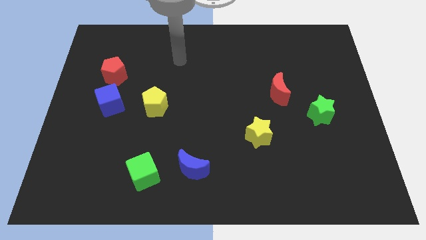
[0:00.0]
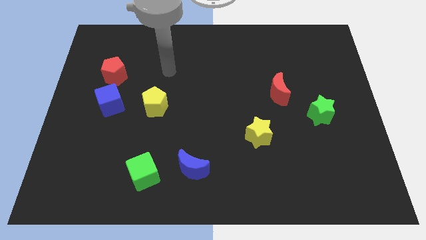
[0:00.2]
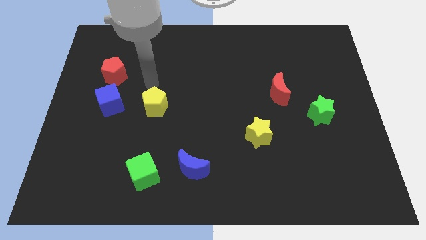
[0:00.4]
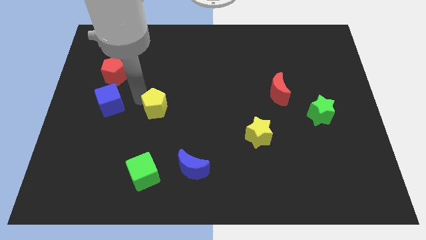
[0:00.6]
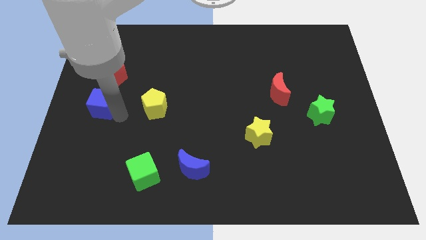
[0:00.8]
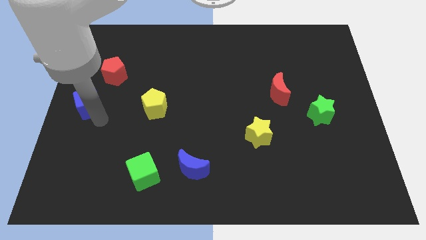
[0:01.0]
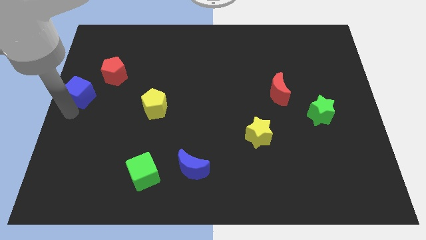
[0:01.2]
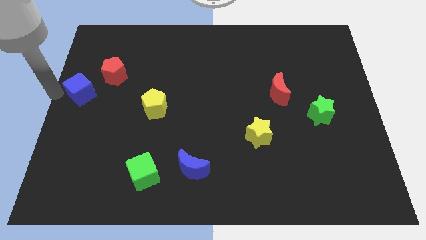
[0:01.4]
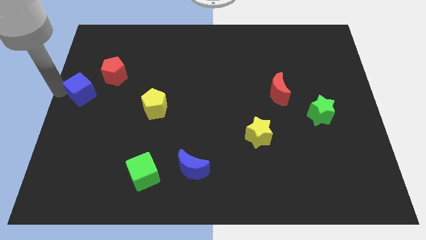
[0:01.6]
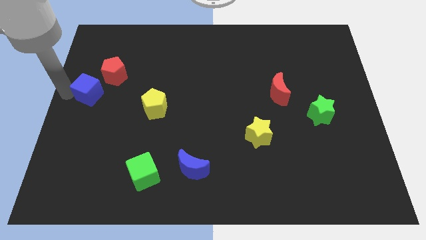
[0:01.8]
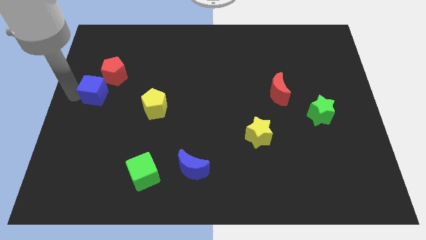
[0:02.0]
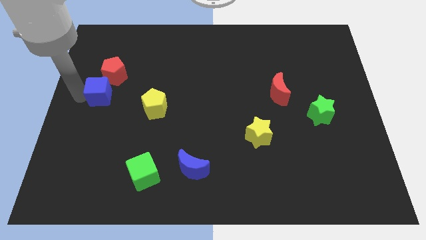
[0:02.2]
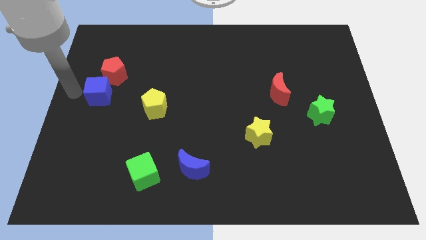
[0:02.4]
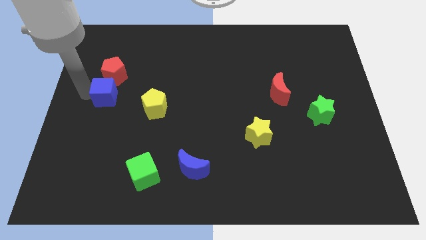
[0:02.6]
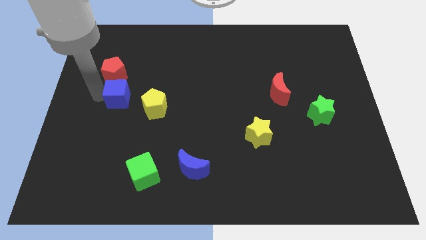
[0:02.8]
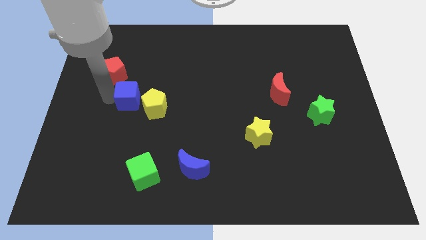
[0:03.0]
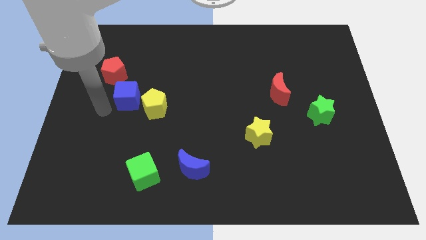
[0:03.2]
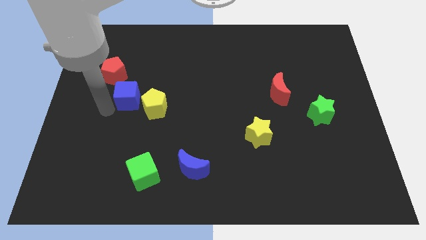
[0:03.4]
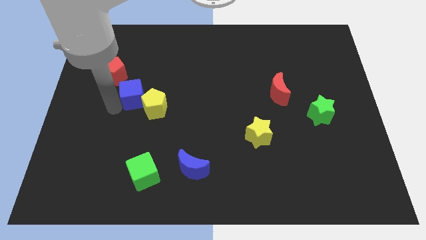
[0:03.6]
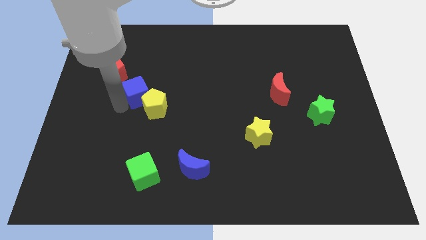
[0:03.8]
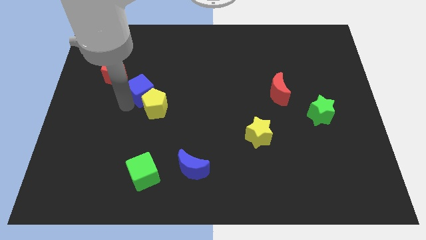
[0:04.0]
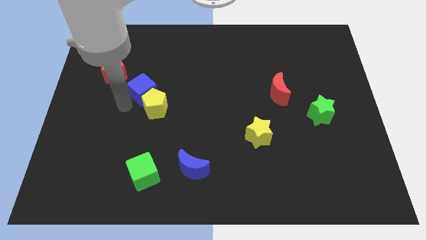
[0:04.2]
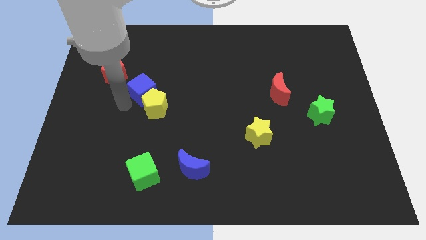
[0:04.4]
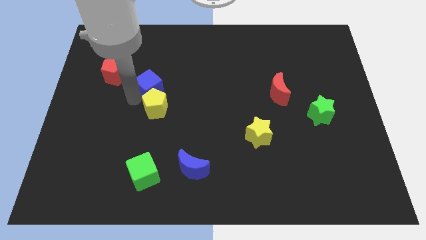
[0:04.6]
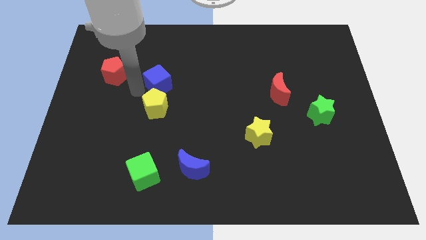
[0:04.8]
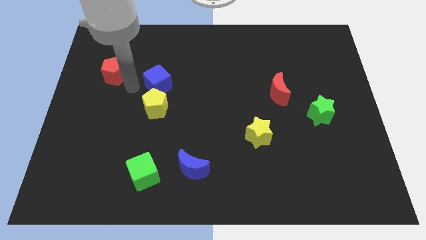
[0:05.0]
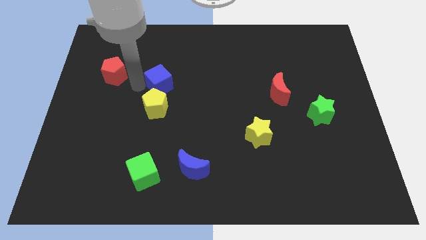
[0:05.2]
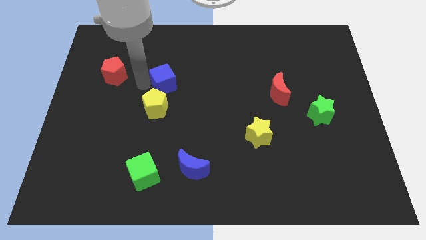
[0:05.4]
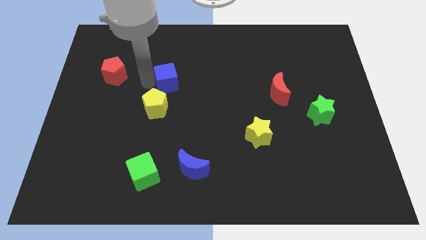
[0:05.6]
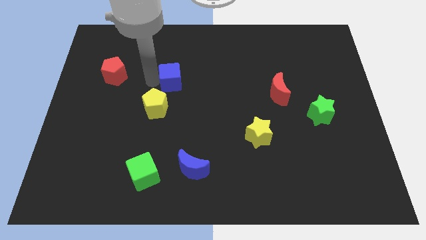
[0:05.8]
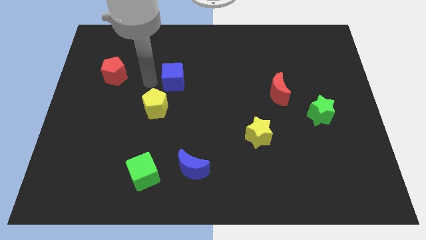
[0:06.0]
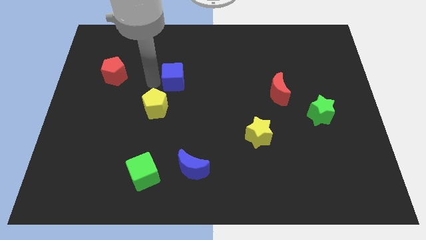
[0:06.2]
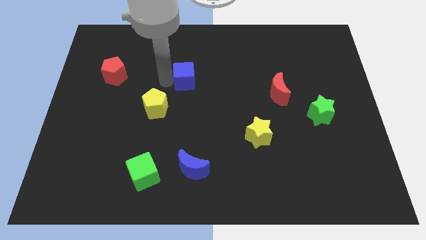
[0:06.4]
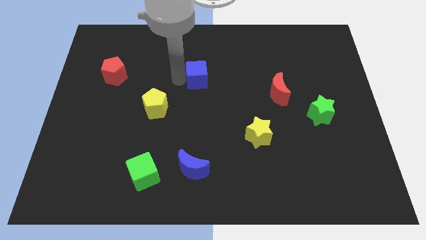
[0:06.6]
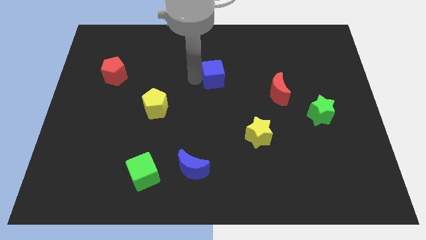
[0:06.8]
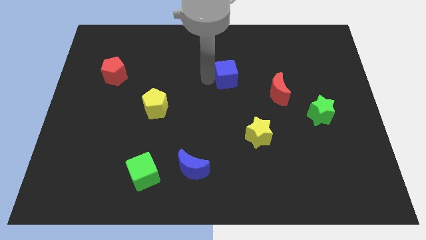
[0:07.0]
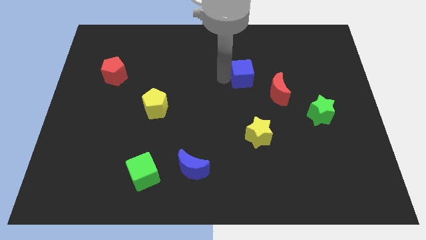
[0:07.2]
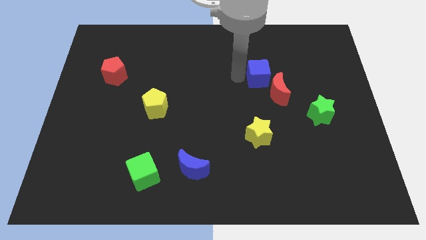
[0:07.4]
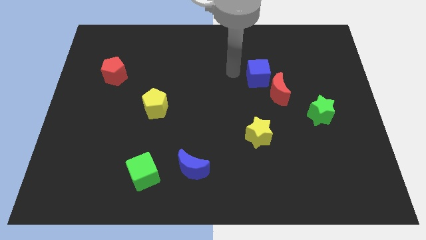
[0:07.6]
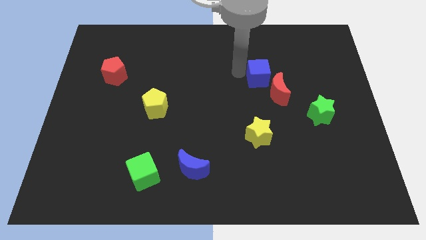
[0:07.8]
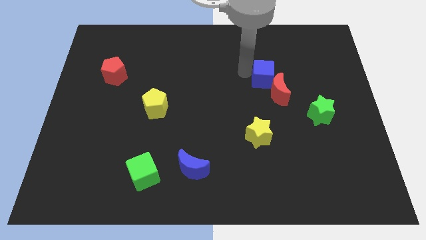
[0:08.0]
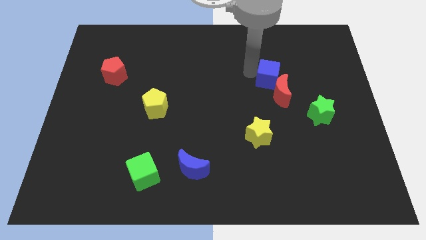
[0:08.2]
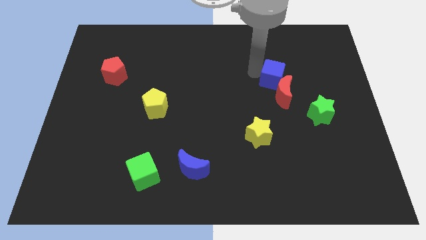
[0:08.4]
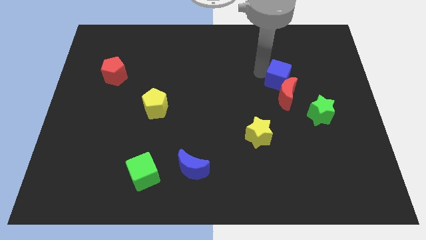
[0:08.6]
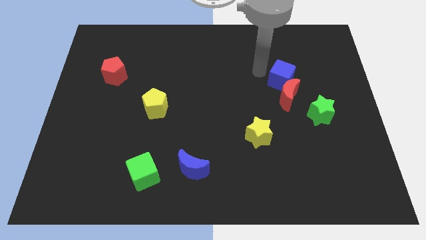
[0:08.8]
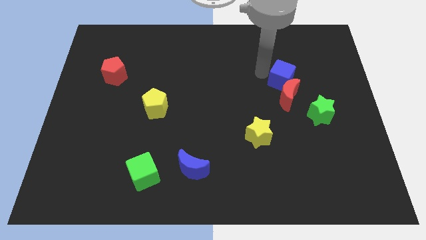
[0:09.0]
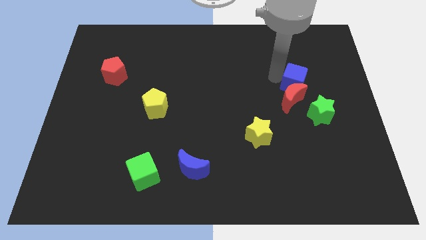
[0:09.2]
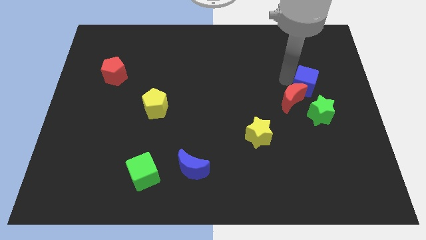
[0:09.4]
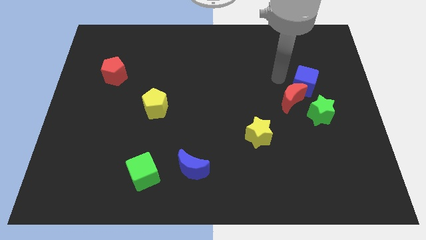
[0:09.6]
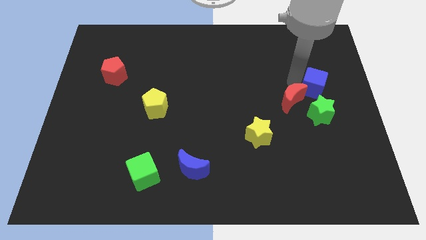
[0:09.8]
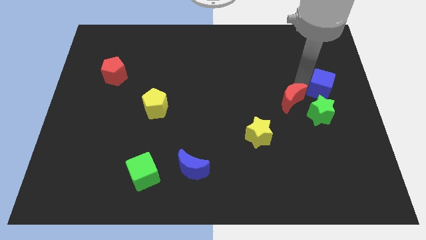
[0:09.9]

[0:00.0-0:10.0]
slide the blue cube to the right side of the board

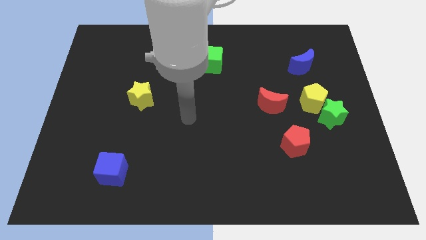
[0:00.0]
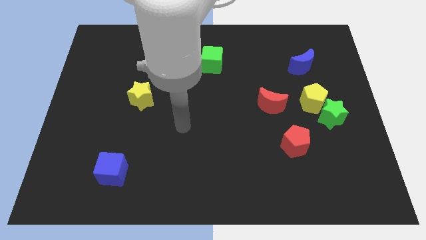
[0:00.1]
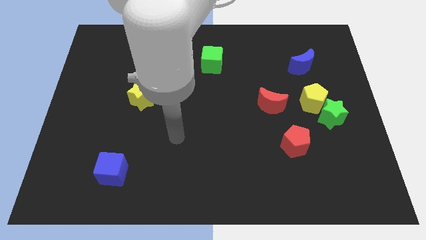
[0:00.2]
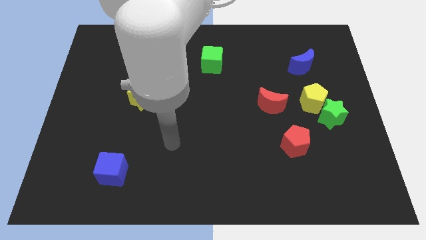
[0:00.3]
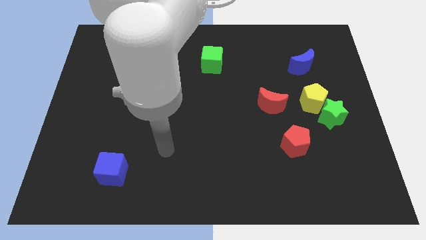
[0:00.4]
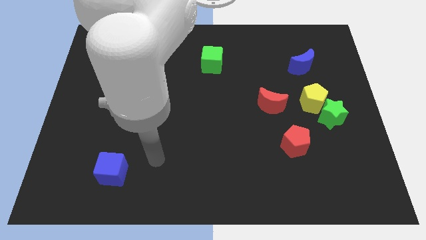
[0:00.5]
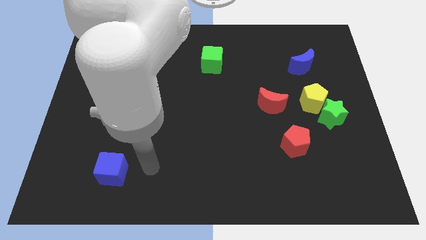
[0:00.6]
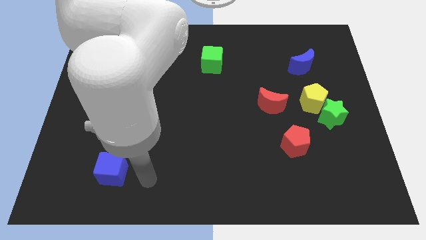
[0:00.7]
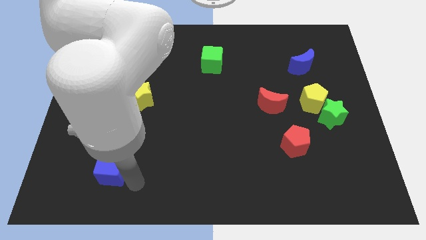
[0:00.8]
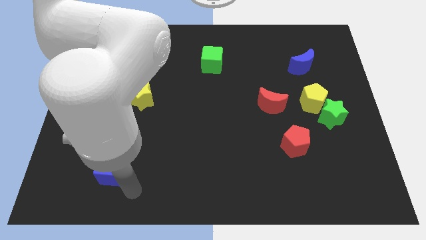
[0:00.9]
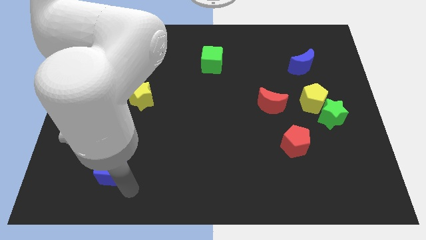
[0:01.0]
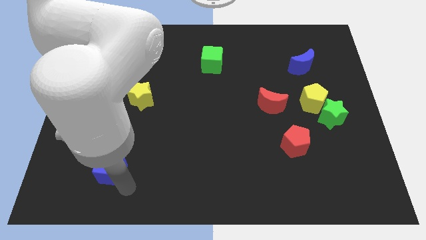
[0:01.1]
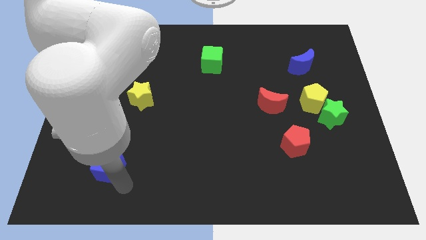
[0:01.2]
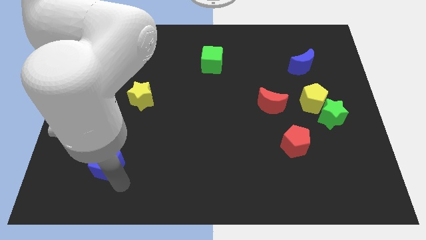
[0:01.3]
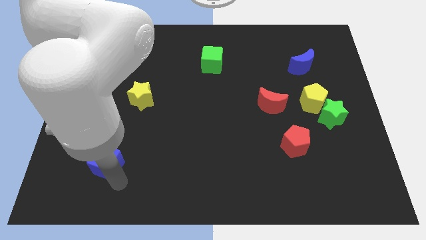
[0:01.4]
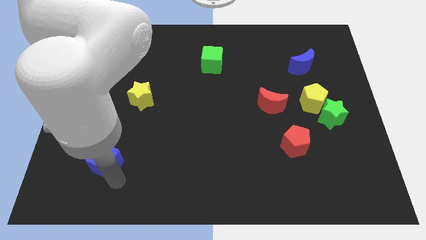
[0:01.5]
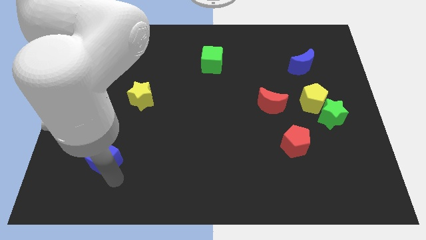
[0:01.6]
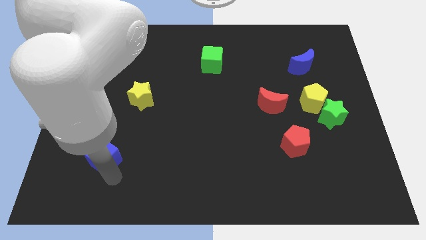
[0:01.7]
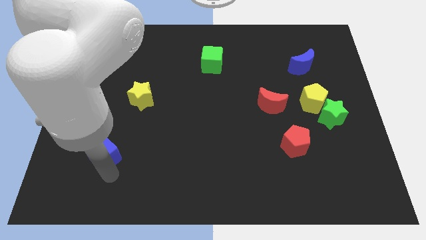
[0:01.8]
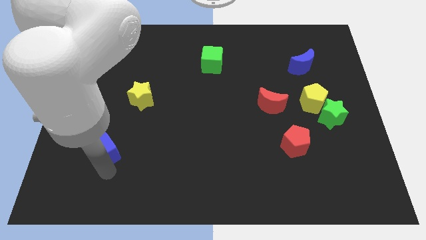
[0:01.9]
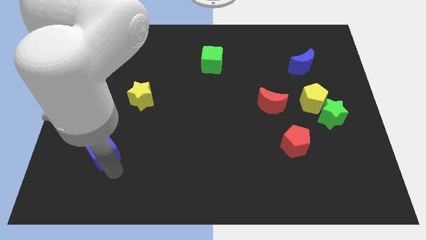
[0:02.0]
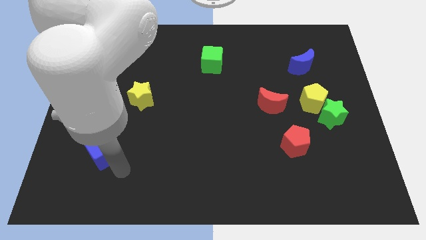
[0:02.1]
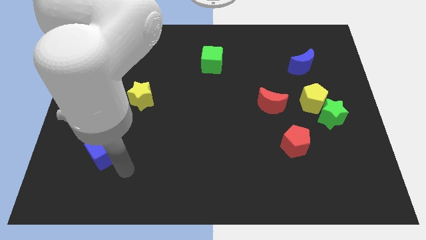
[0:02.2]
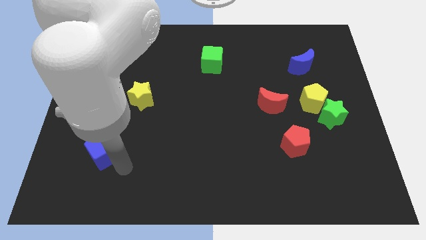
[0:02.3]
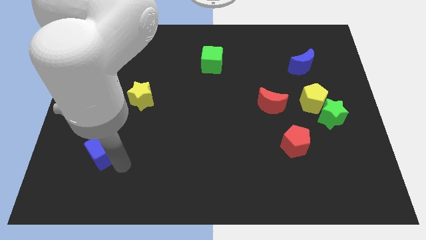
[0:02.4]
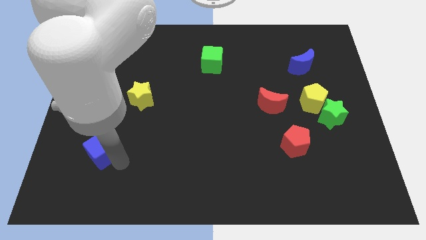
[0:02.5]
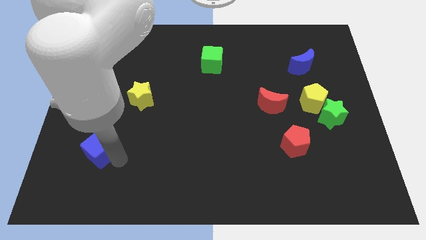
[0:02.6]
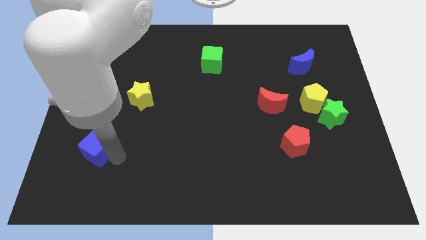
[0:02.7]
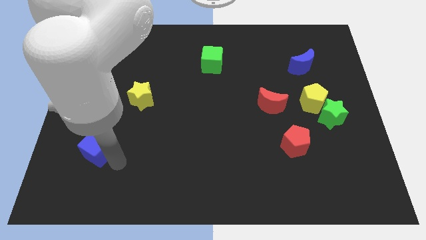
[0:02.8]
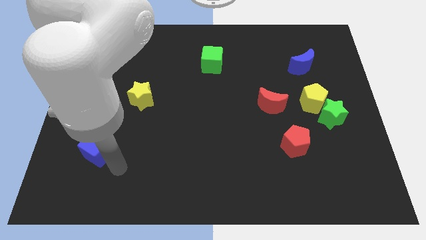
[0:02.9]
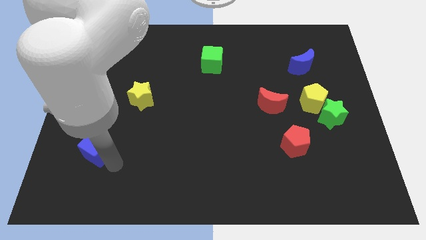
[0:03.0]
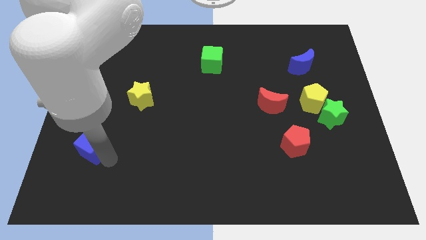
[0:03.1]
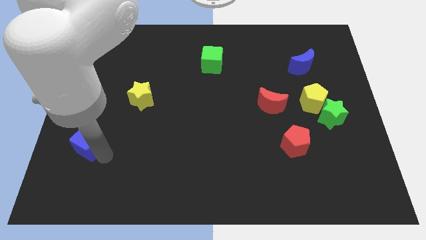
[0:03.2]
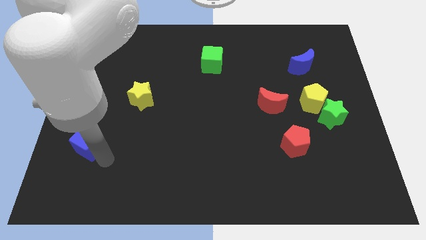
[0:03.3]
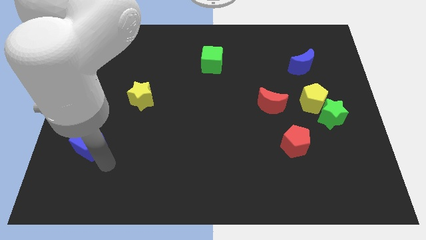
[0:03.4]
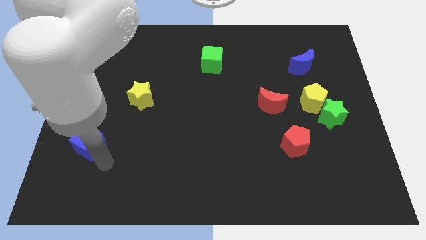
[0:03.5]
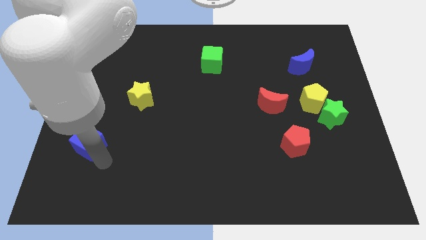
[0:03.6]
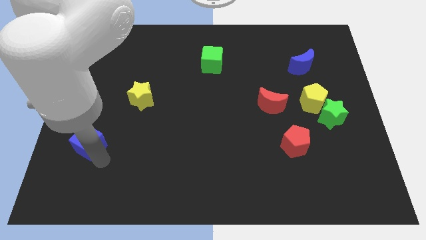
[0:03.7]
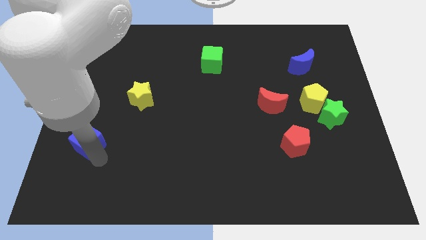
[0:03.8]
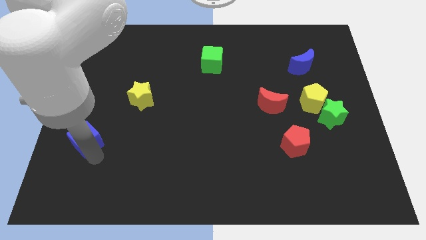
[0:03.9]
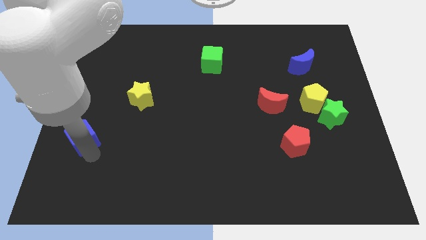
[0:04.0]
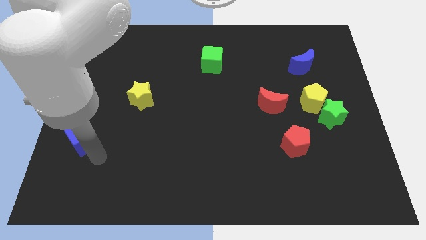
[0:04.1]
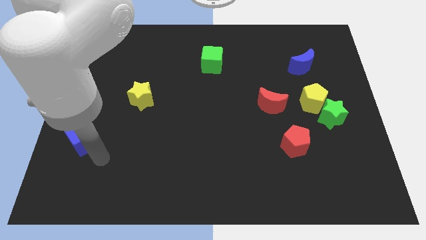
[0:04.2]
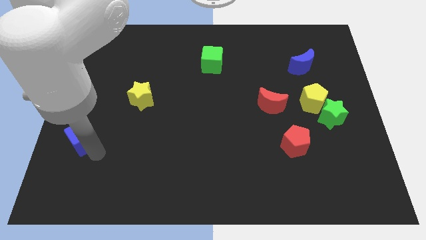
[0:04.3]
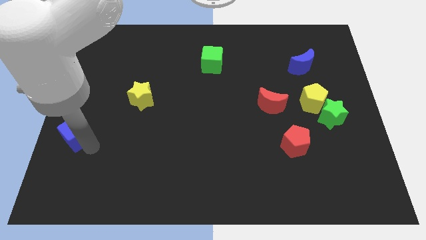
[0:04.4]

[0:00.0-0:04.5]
push the blue cube to the center left
